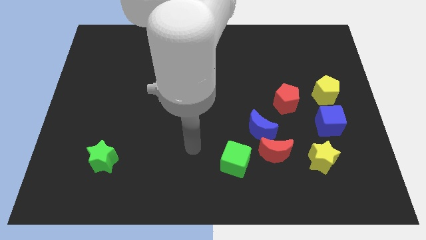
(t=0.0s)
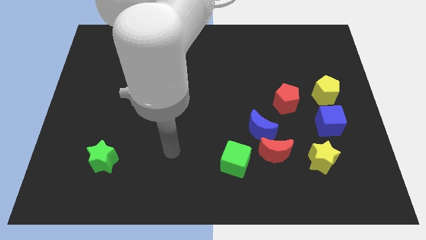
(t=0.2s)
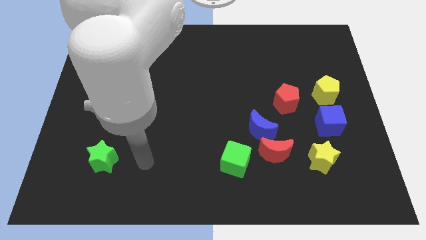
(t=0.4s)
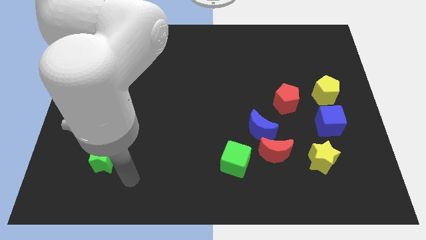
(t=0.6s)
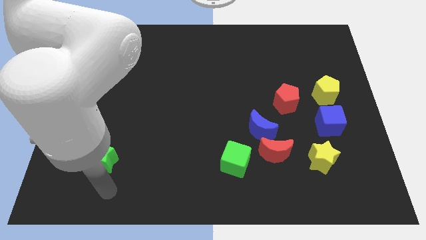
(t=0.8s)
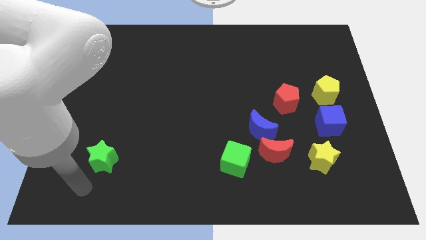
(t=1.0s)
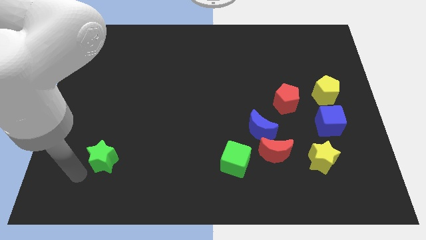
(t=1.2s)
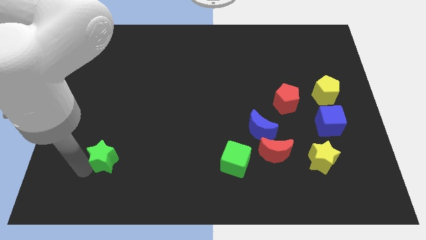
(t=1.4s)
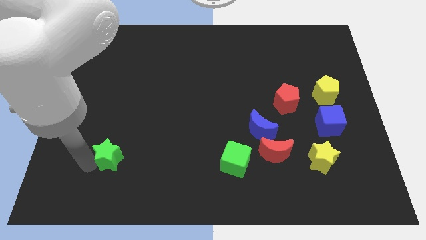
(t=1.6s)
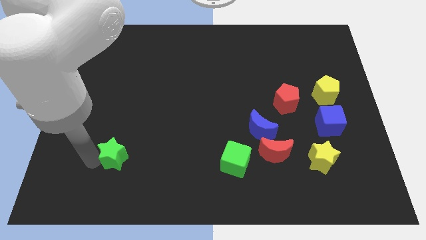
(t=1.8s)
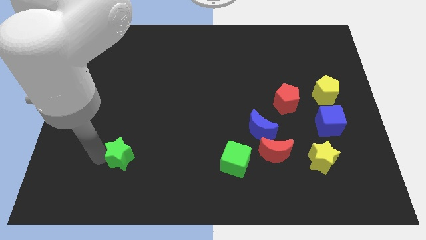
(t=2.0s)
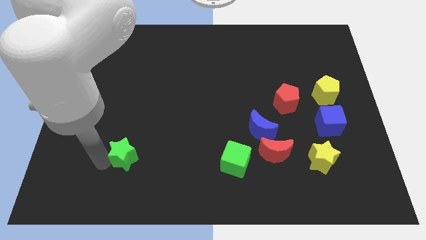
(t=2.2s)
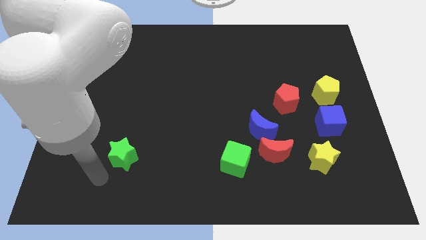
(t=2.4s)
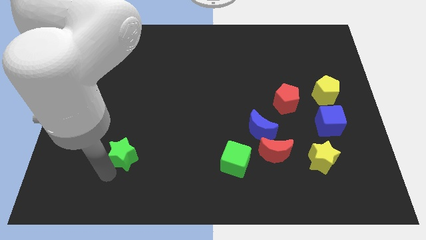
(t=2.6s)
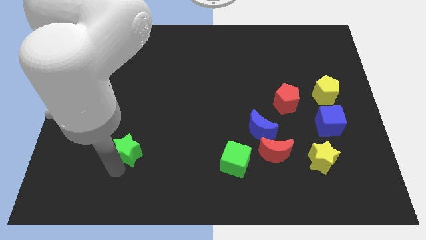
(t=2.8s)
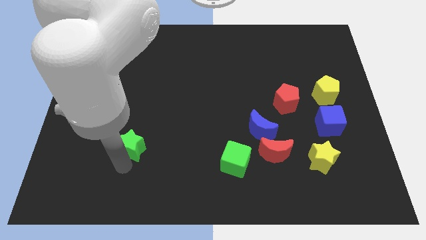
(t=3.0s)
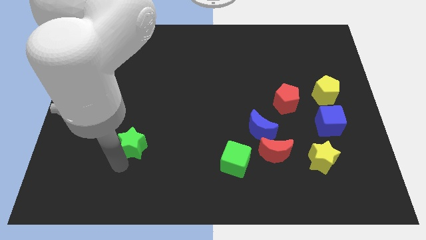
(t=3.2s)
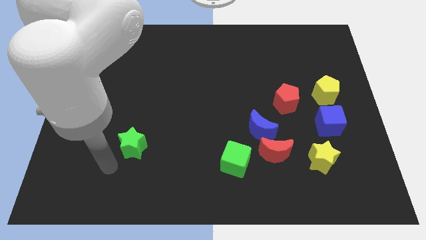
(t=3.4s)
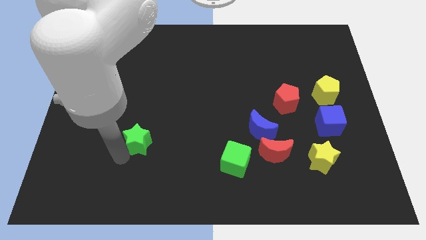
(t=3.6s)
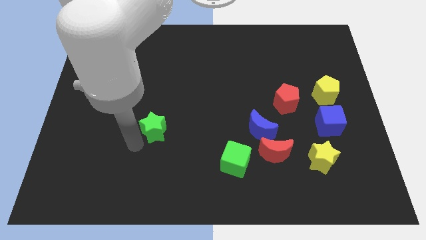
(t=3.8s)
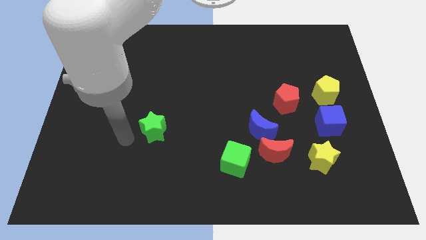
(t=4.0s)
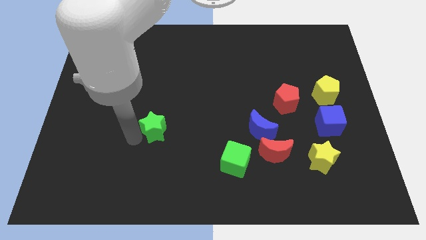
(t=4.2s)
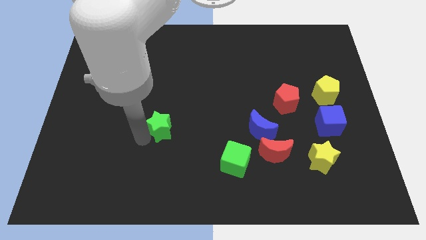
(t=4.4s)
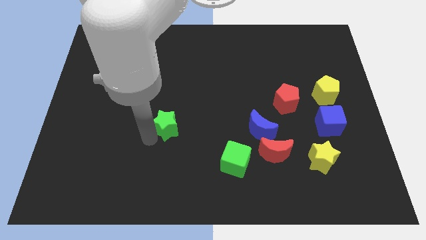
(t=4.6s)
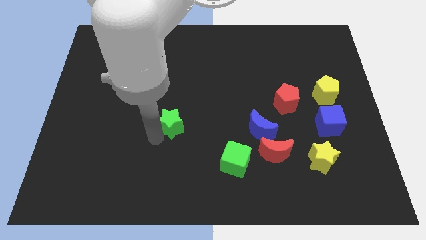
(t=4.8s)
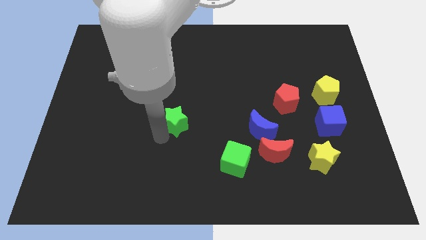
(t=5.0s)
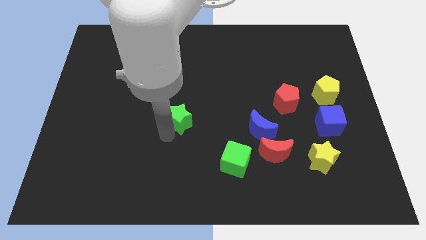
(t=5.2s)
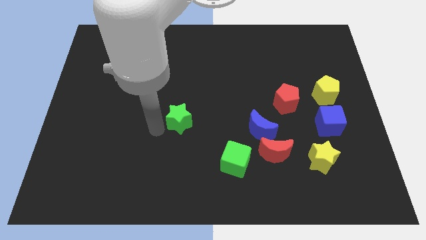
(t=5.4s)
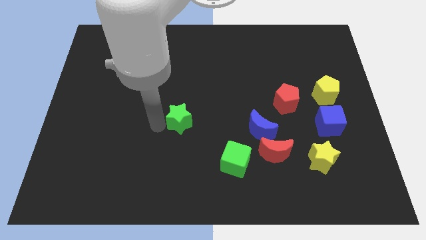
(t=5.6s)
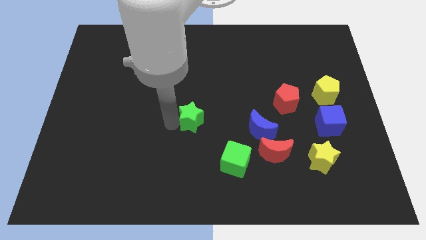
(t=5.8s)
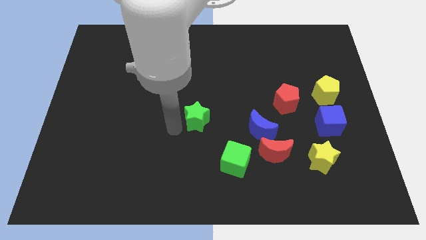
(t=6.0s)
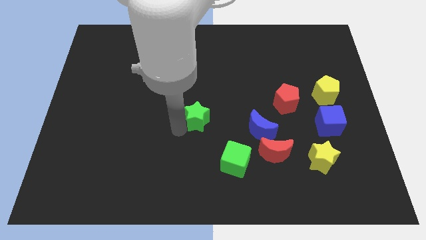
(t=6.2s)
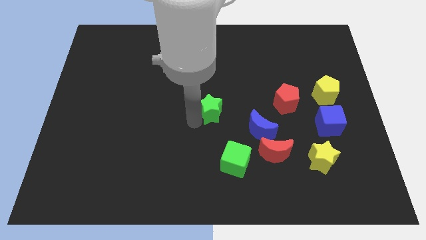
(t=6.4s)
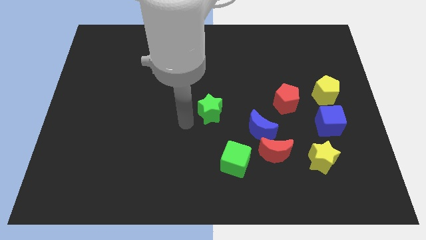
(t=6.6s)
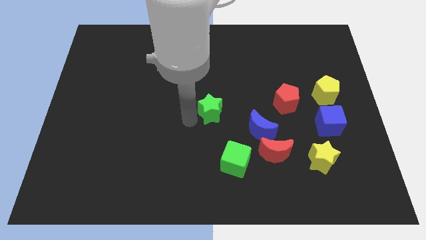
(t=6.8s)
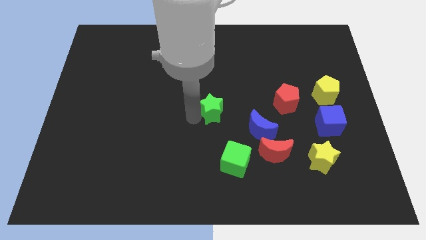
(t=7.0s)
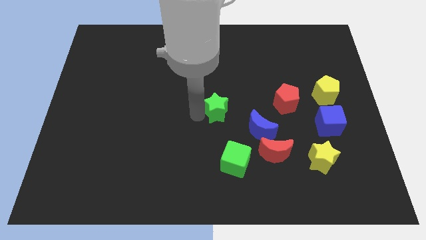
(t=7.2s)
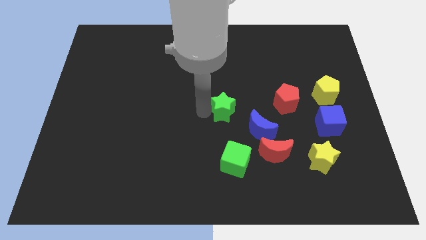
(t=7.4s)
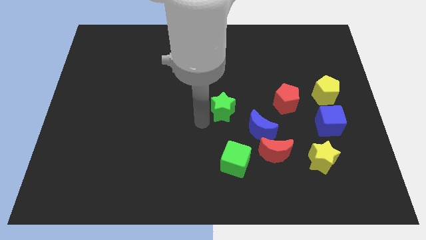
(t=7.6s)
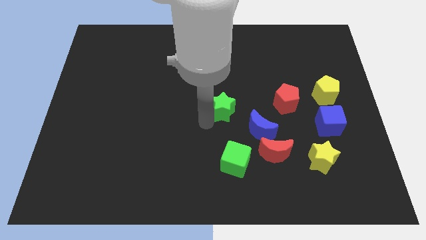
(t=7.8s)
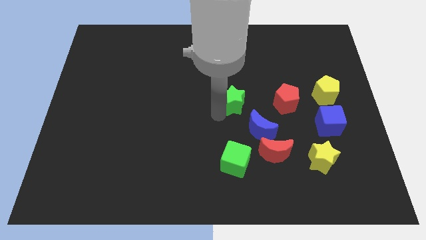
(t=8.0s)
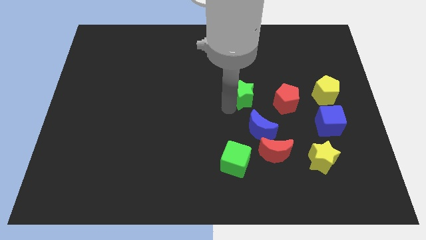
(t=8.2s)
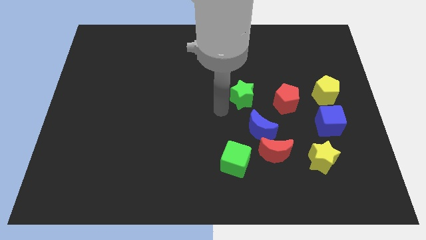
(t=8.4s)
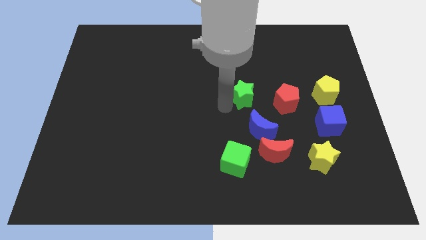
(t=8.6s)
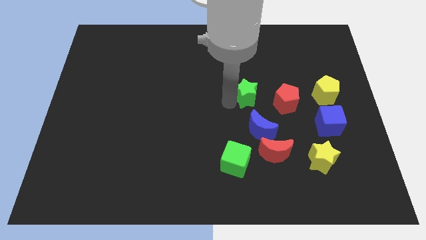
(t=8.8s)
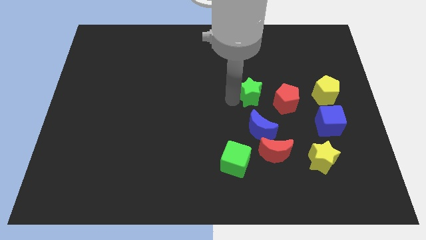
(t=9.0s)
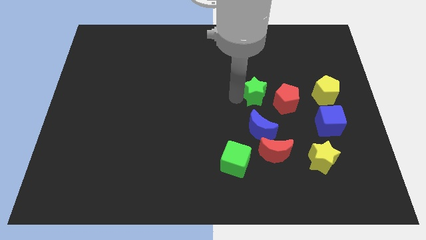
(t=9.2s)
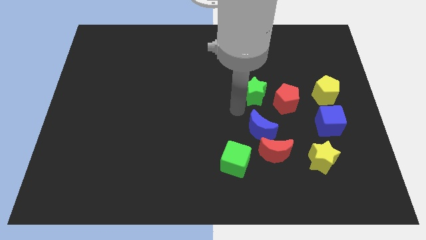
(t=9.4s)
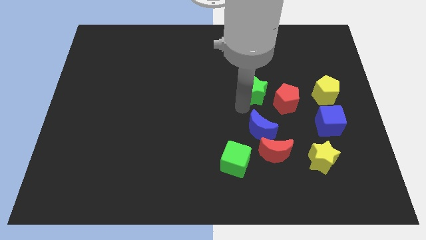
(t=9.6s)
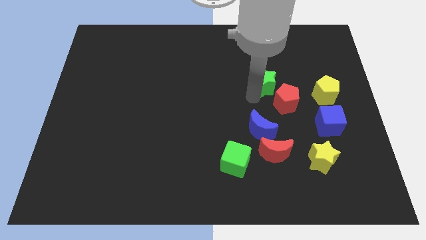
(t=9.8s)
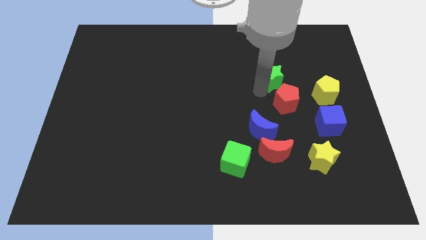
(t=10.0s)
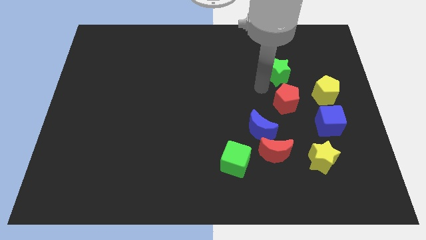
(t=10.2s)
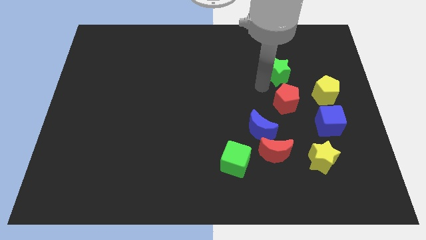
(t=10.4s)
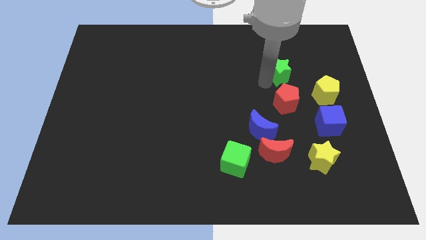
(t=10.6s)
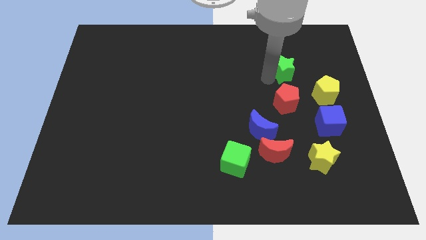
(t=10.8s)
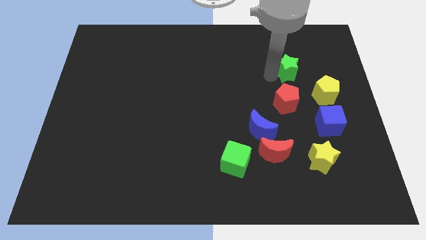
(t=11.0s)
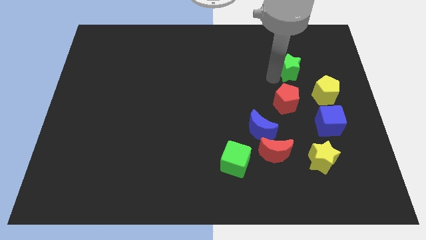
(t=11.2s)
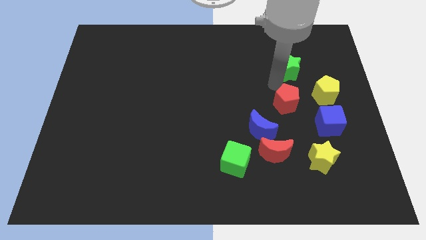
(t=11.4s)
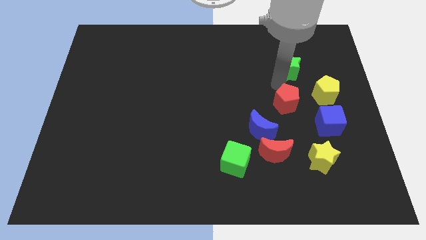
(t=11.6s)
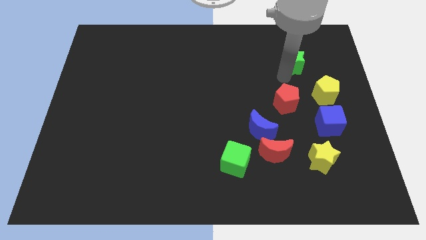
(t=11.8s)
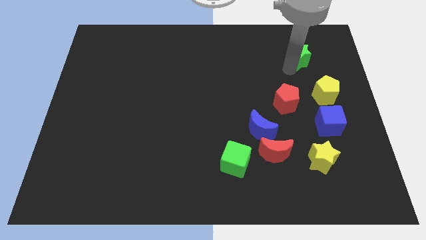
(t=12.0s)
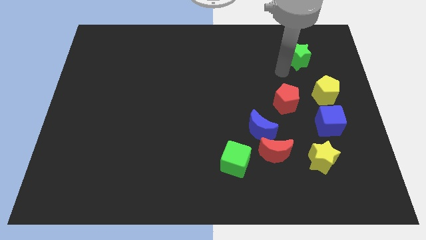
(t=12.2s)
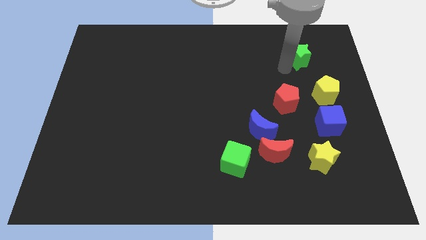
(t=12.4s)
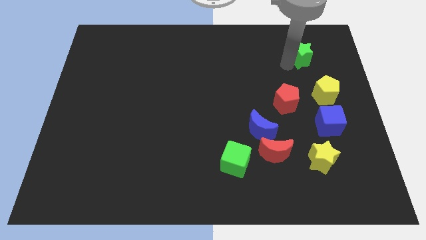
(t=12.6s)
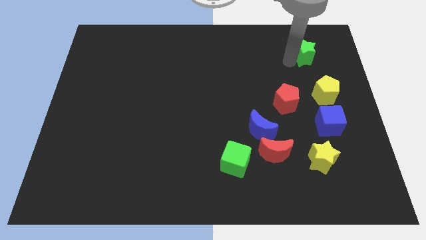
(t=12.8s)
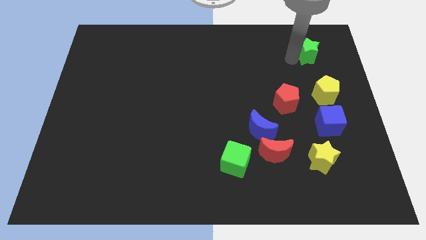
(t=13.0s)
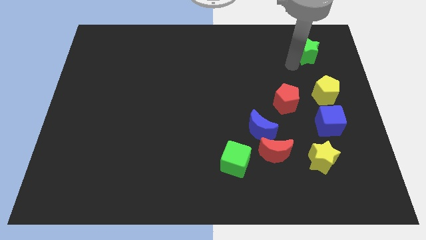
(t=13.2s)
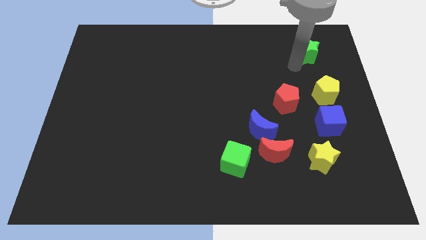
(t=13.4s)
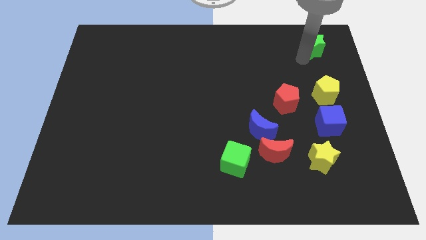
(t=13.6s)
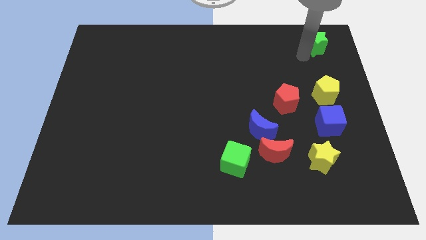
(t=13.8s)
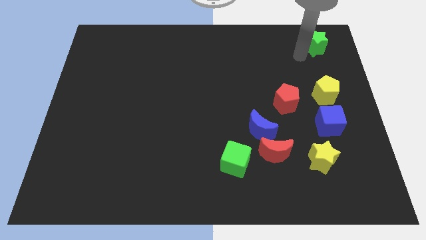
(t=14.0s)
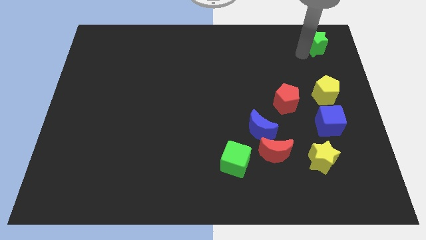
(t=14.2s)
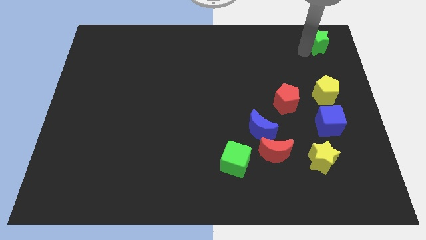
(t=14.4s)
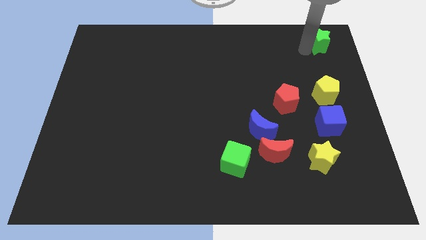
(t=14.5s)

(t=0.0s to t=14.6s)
put the green star to the top right of the board
